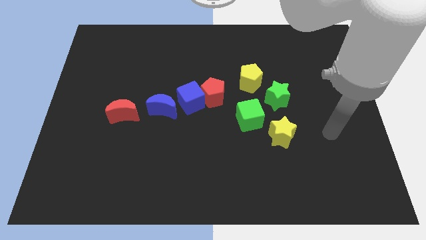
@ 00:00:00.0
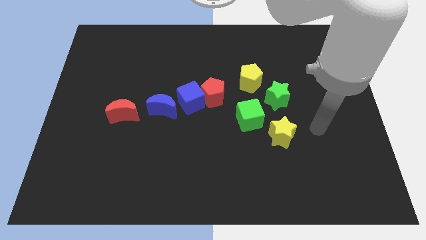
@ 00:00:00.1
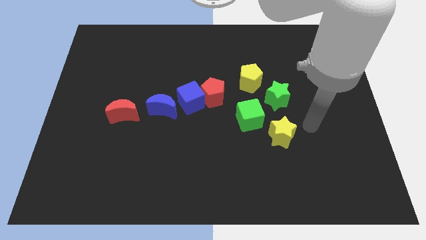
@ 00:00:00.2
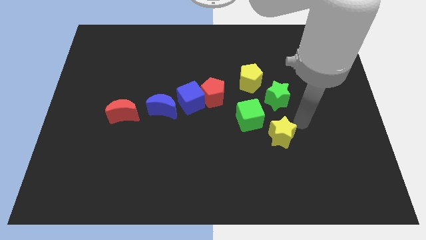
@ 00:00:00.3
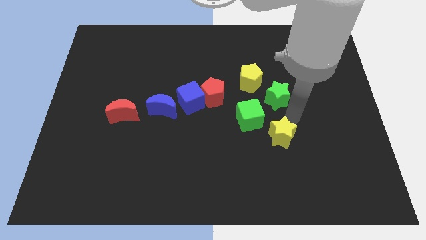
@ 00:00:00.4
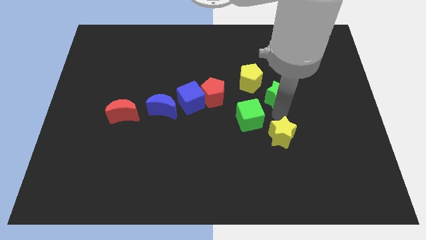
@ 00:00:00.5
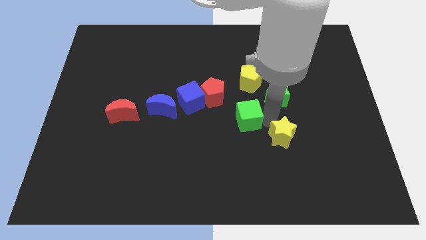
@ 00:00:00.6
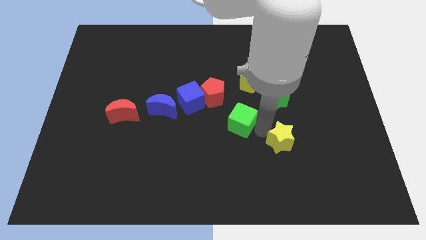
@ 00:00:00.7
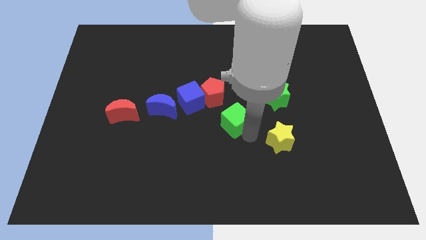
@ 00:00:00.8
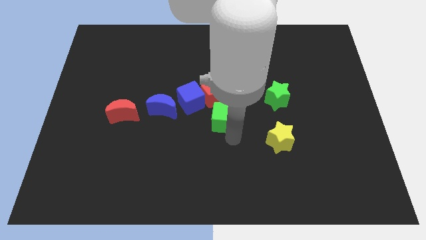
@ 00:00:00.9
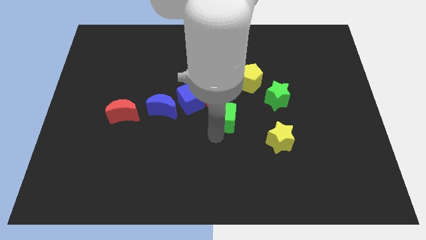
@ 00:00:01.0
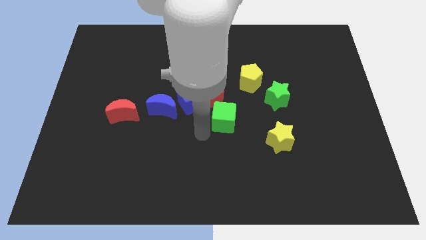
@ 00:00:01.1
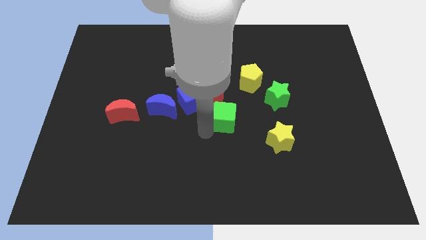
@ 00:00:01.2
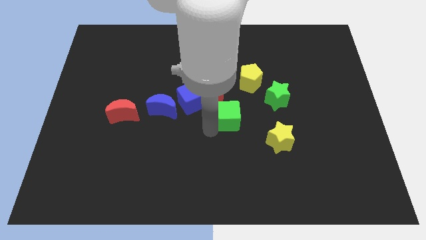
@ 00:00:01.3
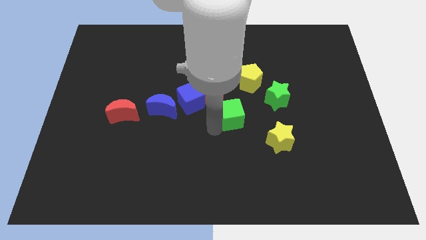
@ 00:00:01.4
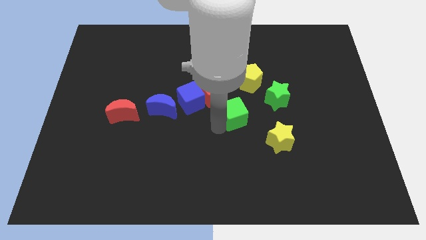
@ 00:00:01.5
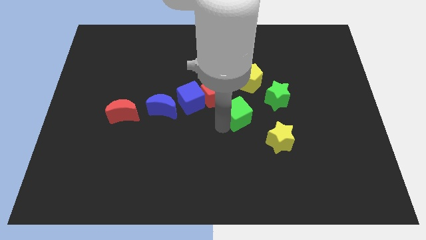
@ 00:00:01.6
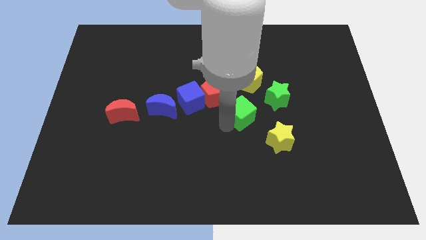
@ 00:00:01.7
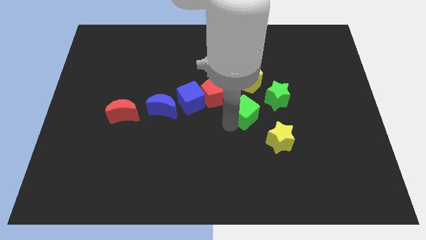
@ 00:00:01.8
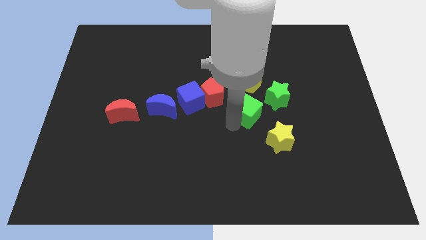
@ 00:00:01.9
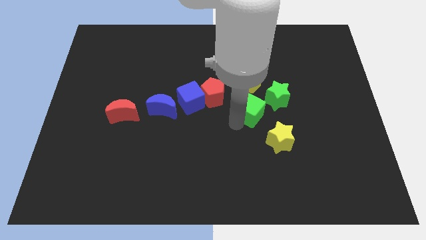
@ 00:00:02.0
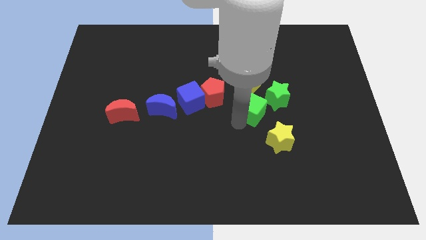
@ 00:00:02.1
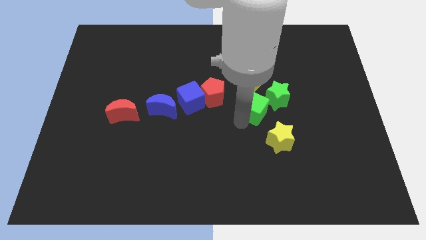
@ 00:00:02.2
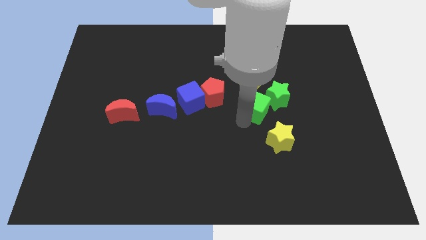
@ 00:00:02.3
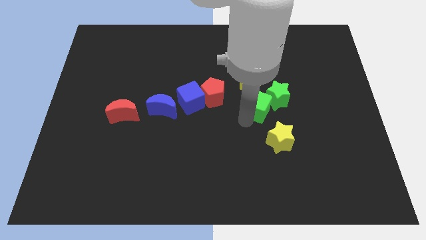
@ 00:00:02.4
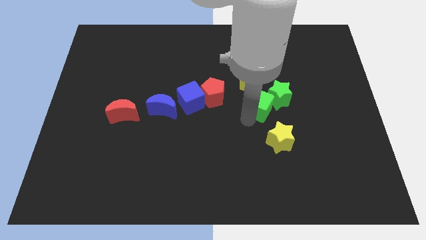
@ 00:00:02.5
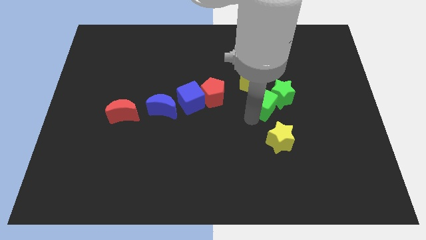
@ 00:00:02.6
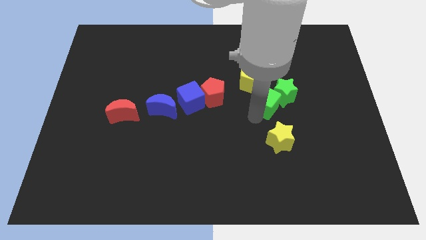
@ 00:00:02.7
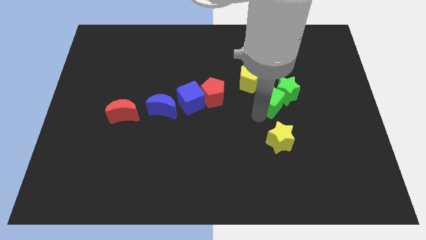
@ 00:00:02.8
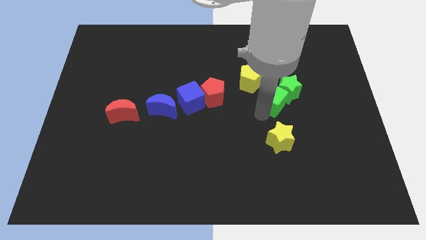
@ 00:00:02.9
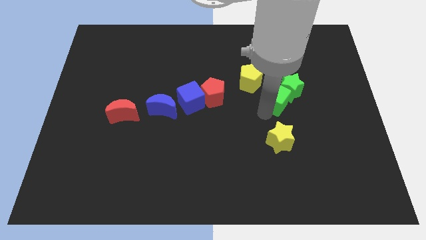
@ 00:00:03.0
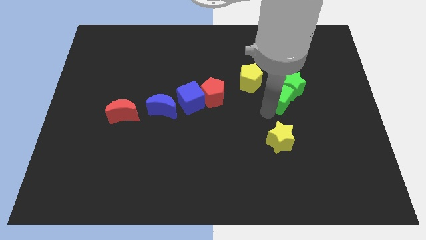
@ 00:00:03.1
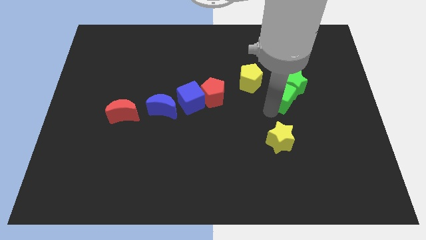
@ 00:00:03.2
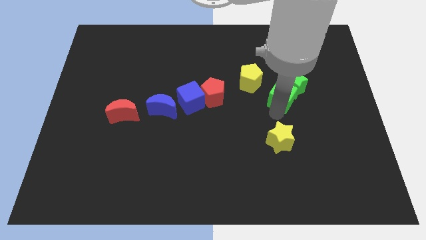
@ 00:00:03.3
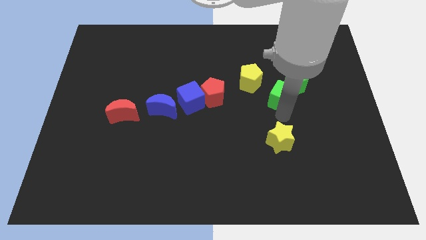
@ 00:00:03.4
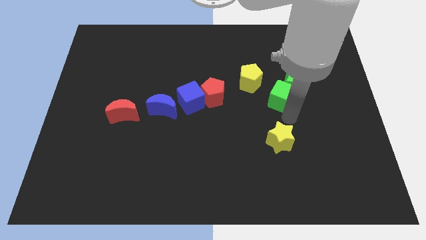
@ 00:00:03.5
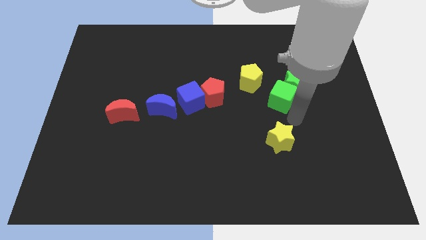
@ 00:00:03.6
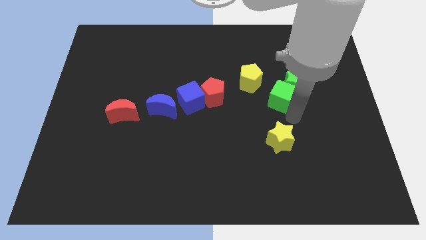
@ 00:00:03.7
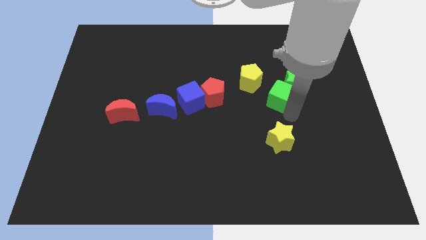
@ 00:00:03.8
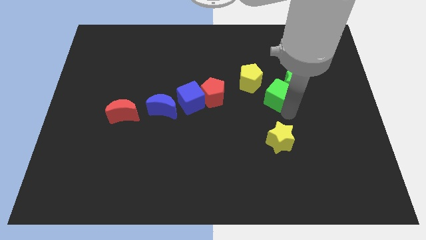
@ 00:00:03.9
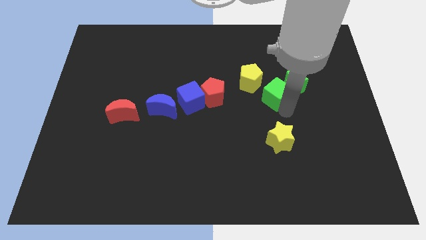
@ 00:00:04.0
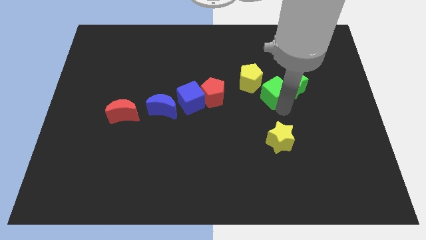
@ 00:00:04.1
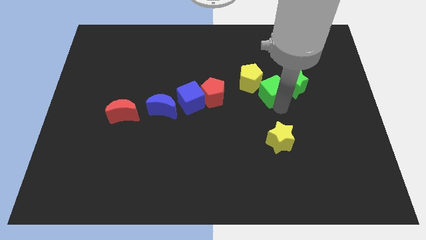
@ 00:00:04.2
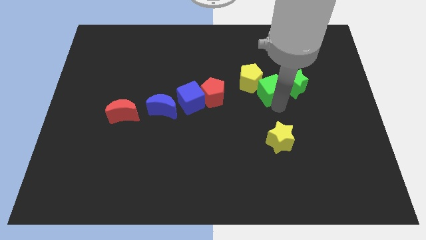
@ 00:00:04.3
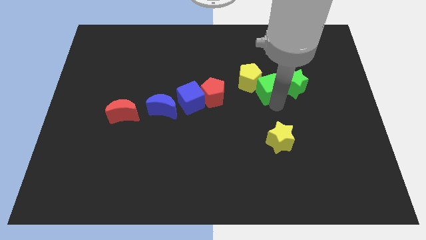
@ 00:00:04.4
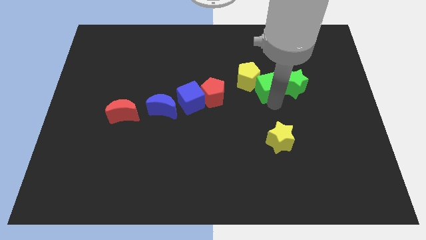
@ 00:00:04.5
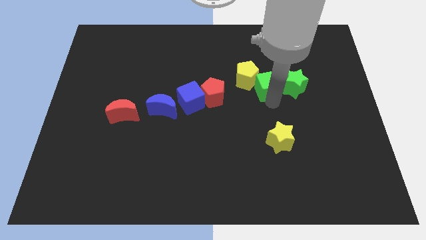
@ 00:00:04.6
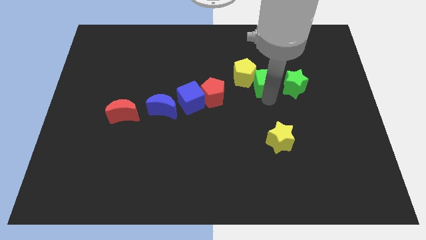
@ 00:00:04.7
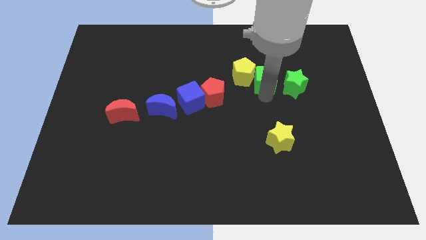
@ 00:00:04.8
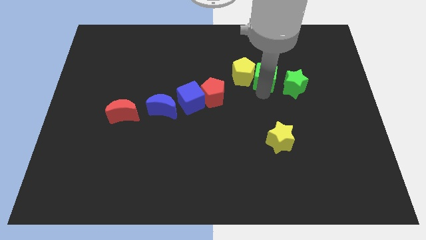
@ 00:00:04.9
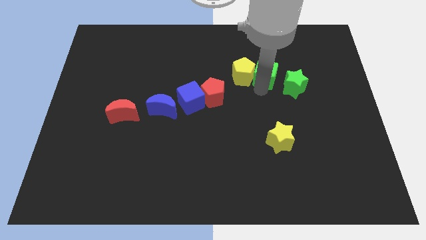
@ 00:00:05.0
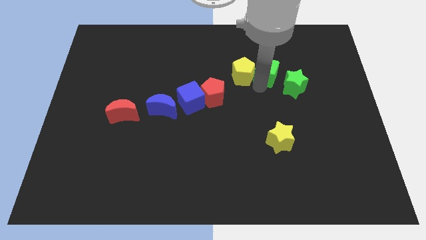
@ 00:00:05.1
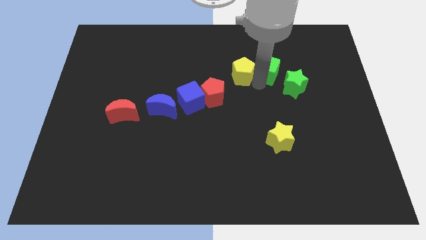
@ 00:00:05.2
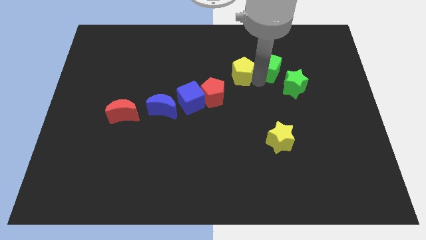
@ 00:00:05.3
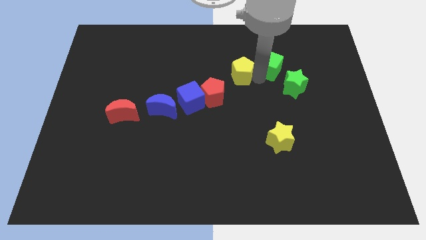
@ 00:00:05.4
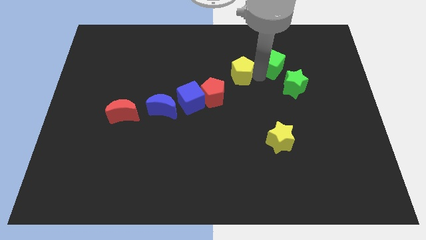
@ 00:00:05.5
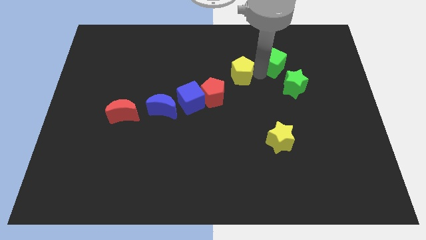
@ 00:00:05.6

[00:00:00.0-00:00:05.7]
put the green cube to the top of the green star
